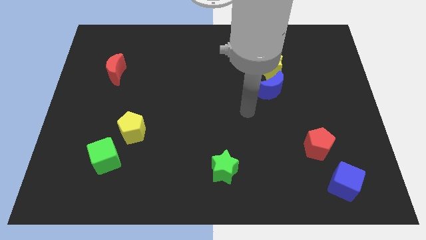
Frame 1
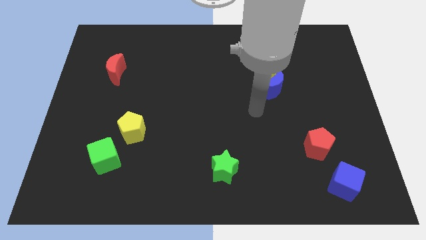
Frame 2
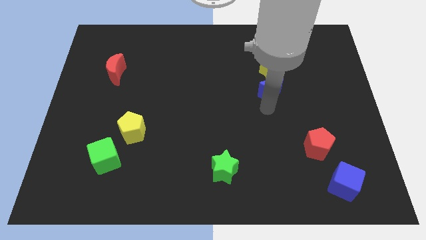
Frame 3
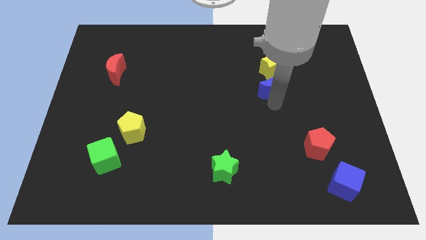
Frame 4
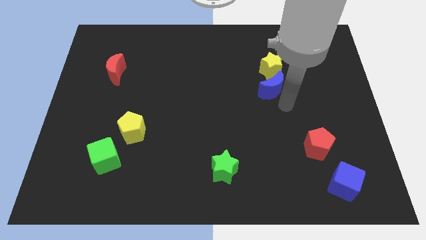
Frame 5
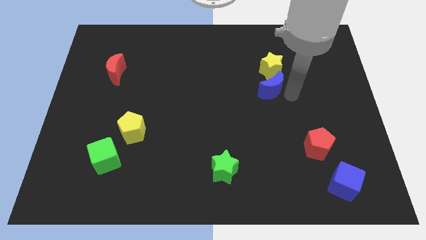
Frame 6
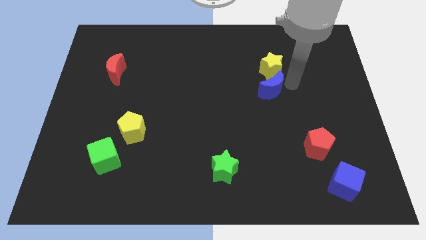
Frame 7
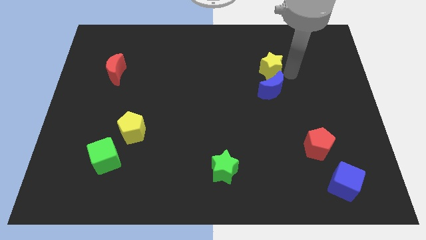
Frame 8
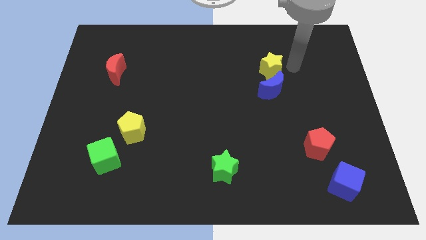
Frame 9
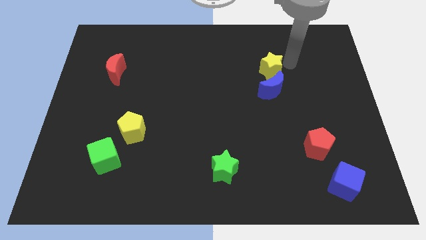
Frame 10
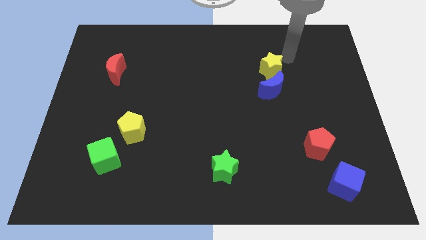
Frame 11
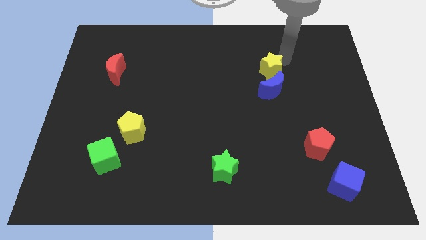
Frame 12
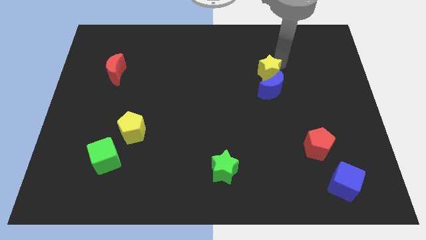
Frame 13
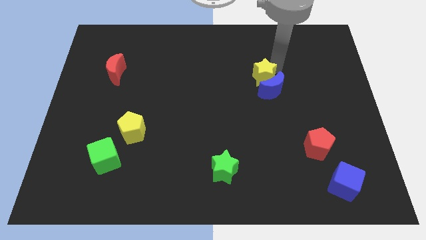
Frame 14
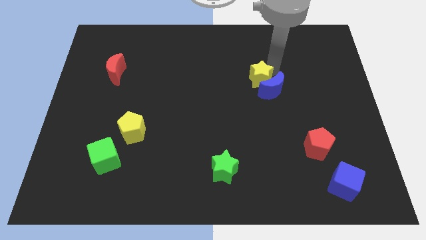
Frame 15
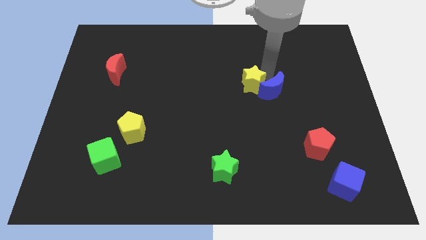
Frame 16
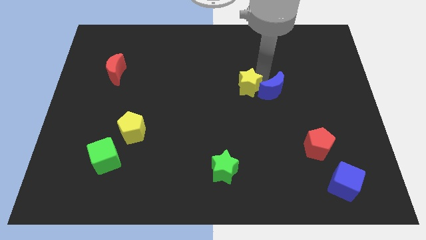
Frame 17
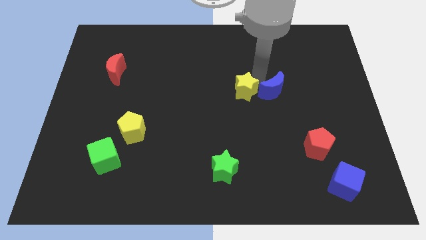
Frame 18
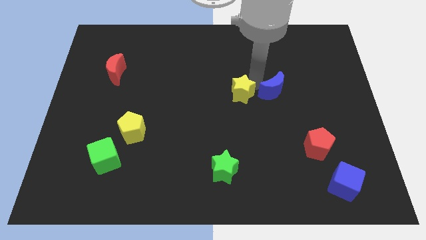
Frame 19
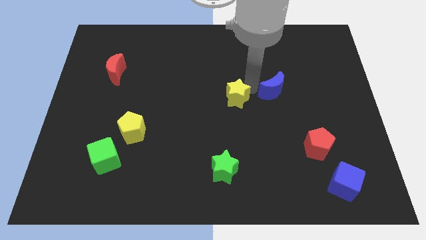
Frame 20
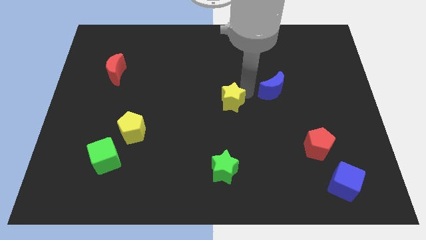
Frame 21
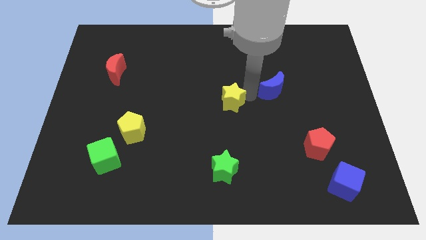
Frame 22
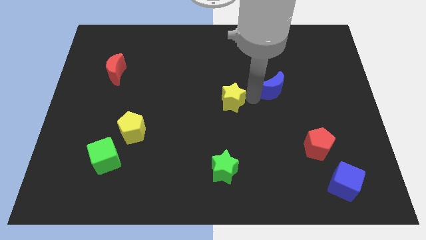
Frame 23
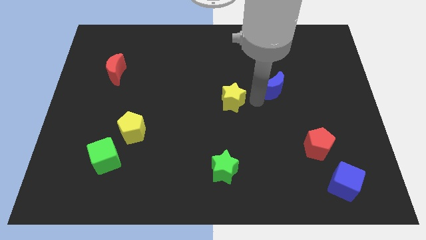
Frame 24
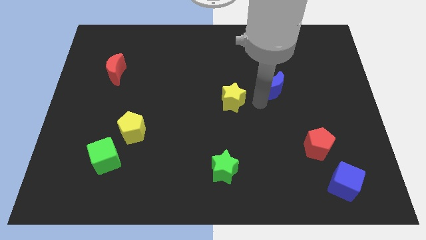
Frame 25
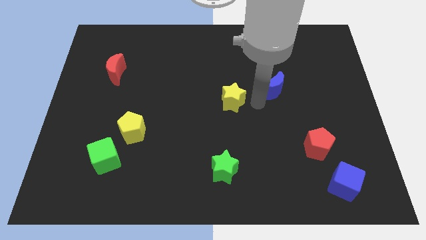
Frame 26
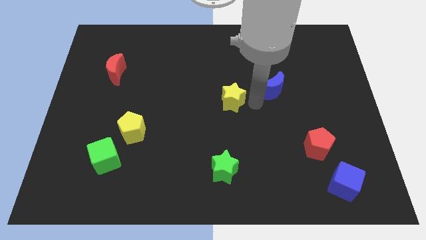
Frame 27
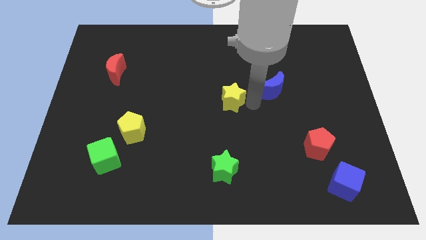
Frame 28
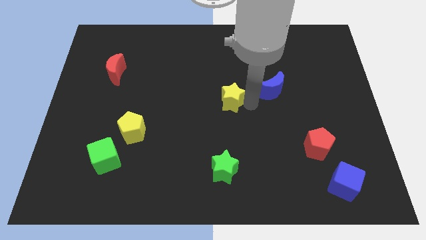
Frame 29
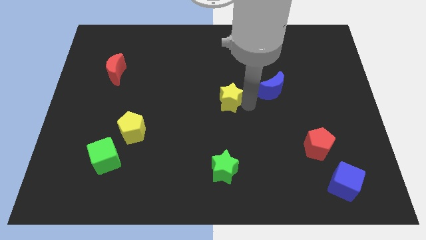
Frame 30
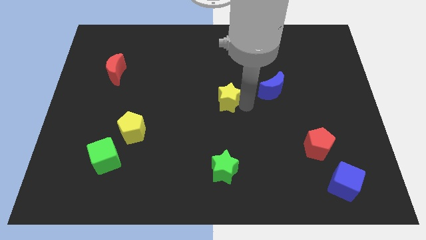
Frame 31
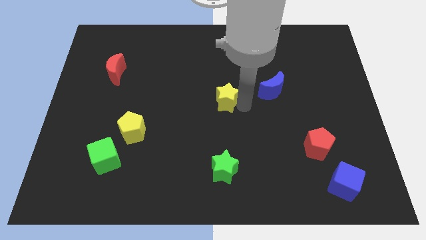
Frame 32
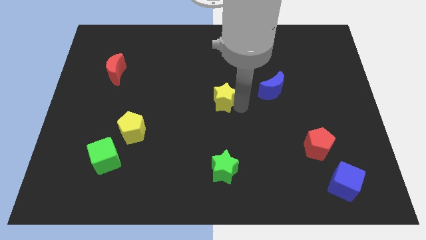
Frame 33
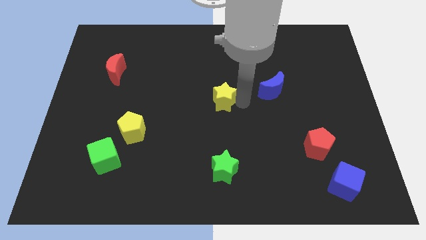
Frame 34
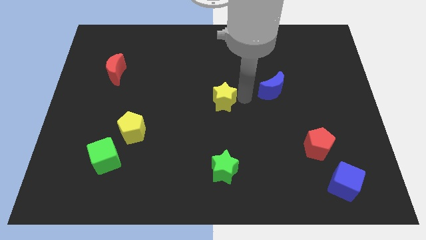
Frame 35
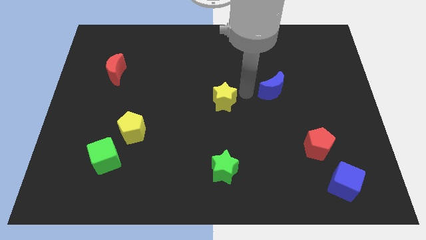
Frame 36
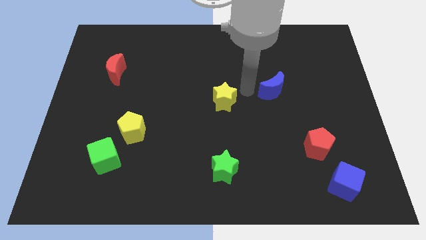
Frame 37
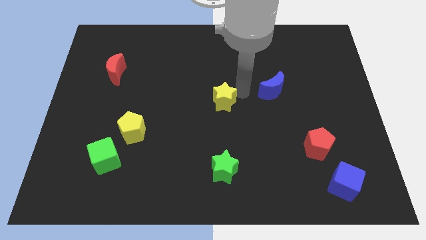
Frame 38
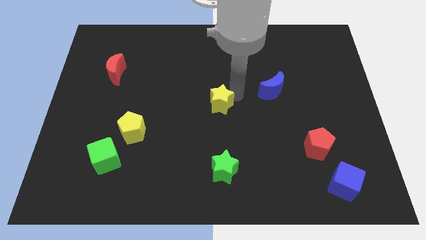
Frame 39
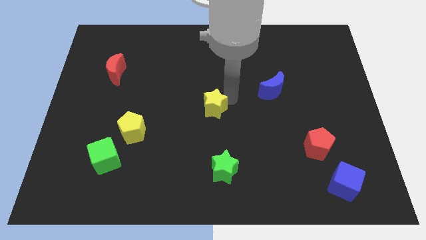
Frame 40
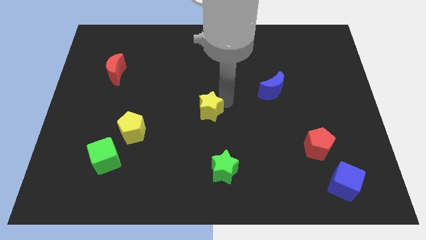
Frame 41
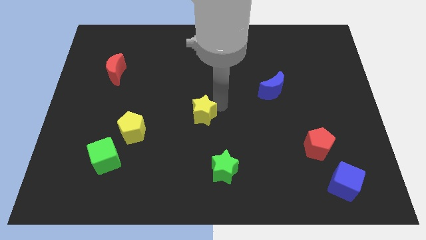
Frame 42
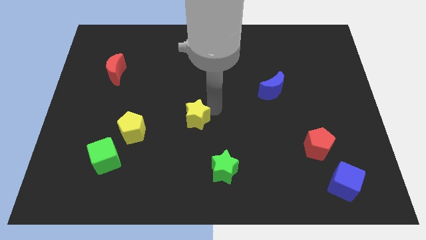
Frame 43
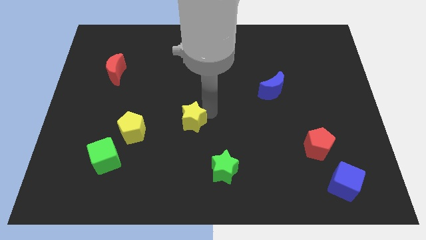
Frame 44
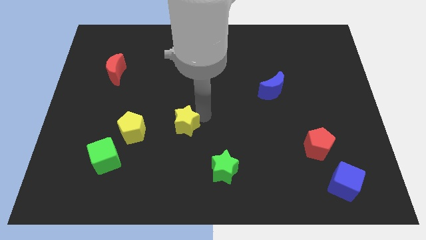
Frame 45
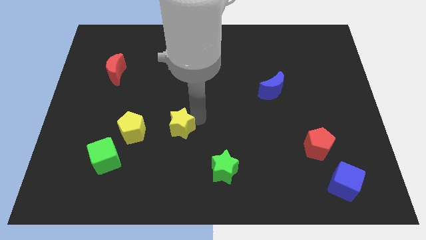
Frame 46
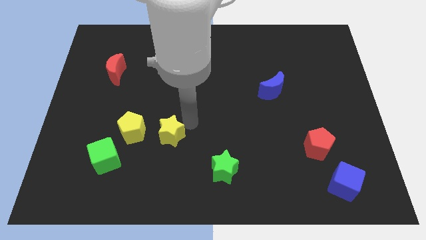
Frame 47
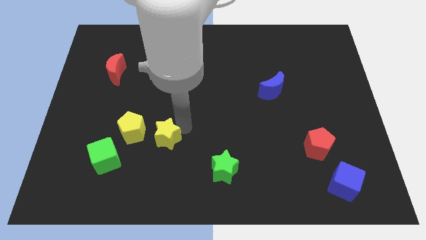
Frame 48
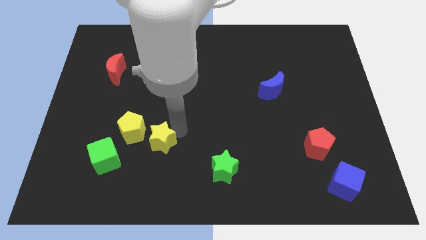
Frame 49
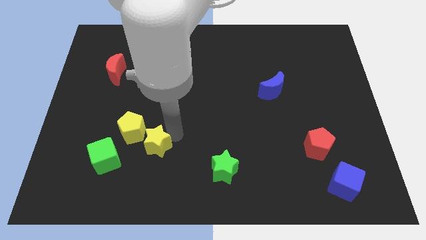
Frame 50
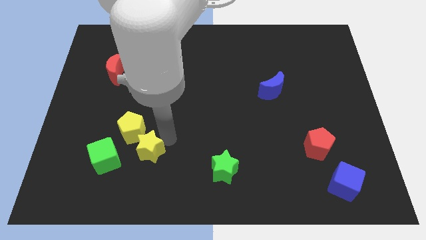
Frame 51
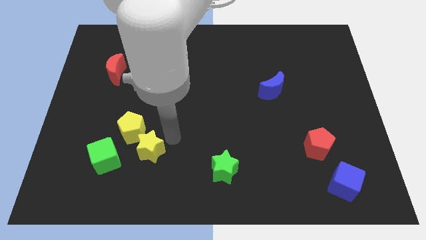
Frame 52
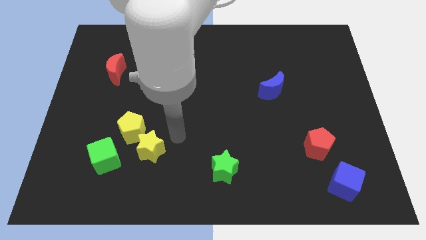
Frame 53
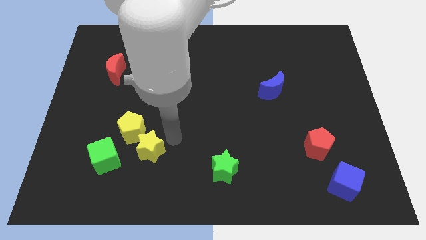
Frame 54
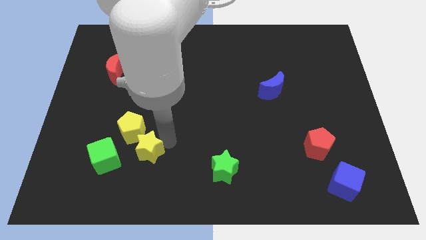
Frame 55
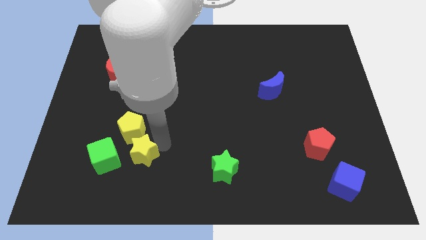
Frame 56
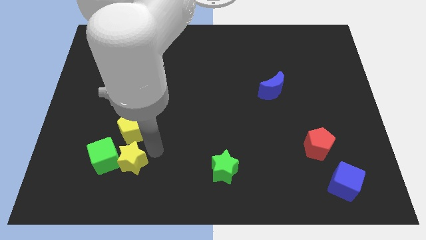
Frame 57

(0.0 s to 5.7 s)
slide the yellow star close to the green cube

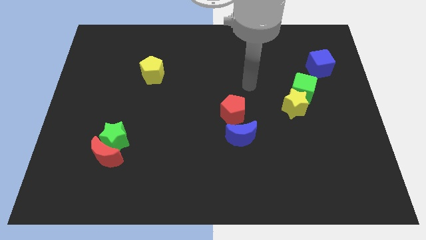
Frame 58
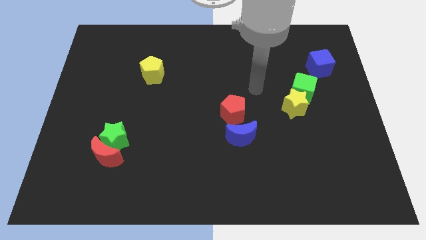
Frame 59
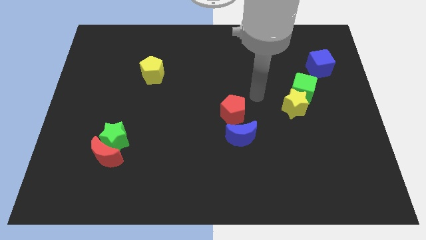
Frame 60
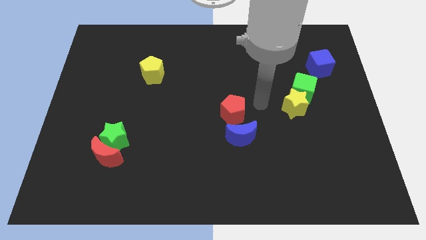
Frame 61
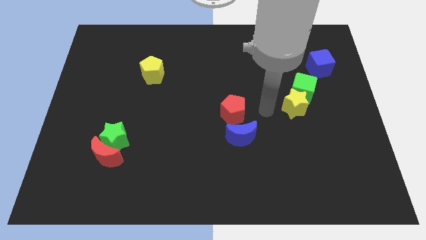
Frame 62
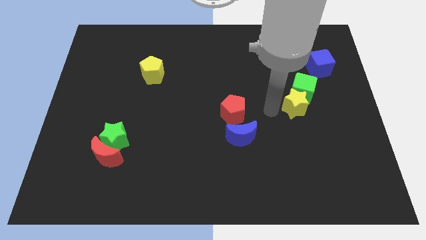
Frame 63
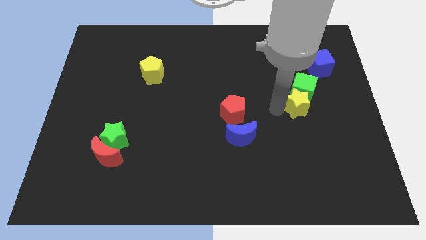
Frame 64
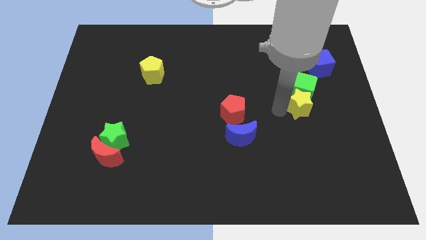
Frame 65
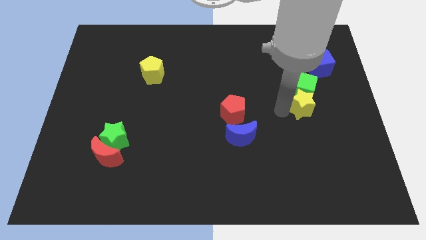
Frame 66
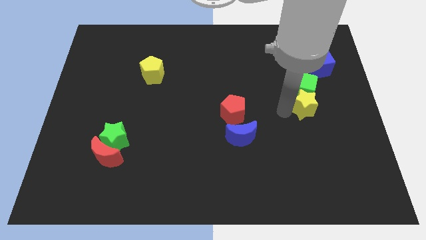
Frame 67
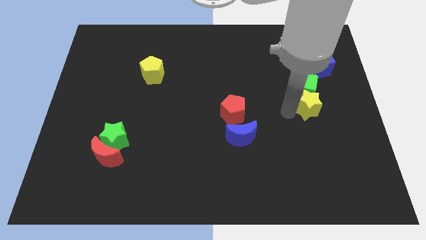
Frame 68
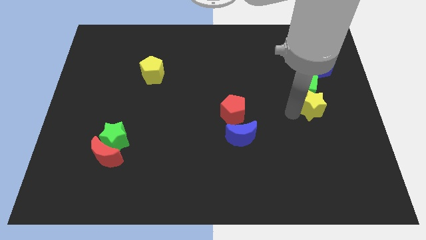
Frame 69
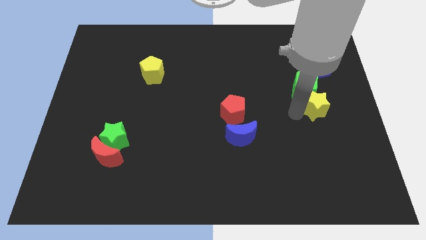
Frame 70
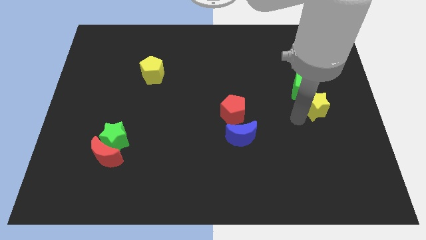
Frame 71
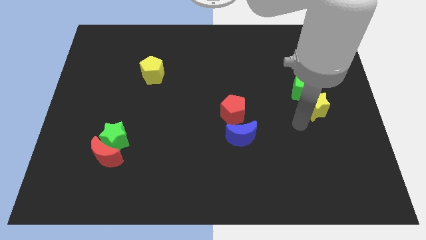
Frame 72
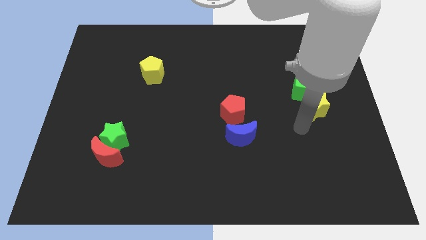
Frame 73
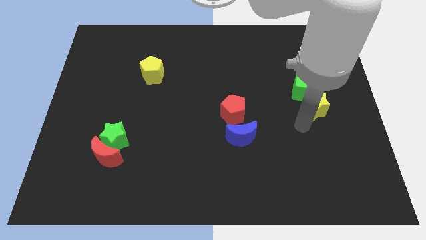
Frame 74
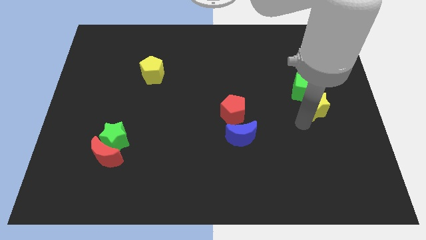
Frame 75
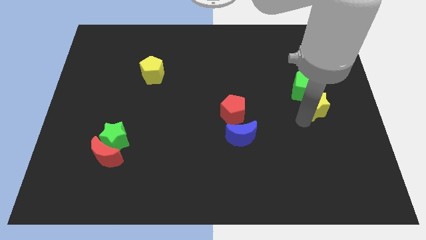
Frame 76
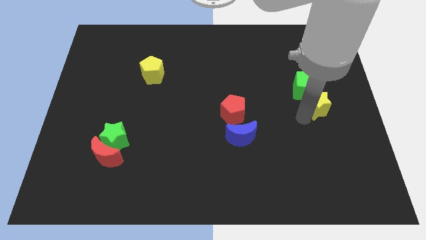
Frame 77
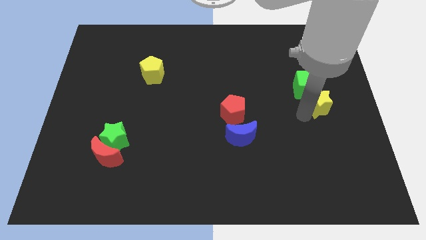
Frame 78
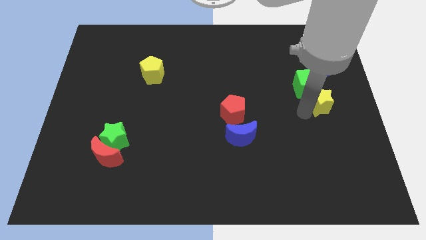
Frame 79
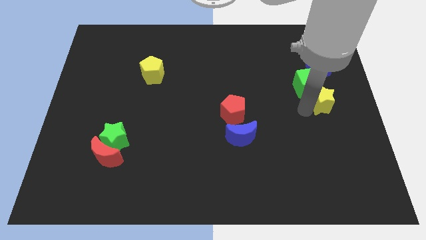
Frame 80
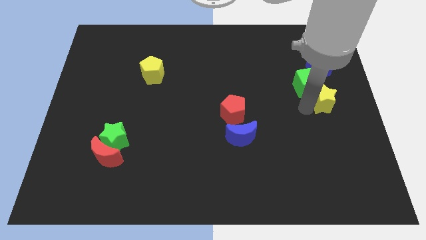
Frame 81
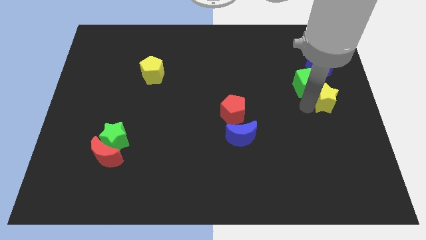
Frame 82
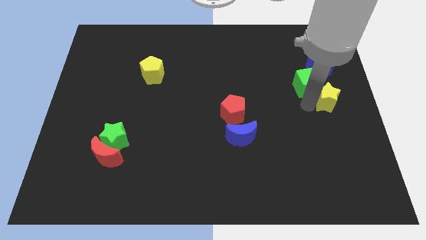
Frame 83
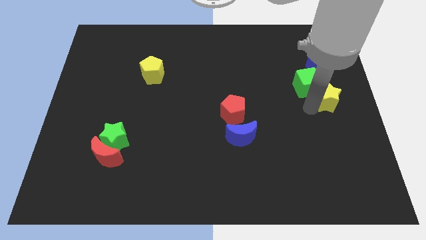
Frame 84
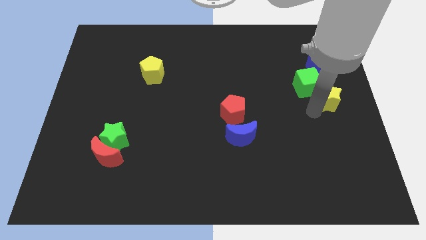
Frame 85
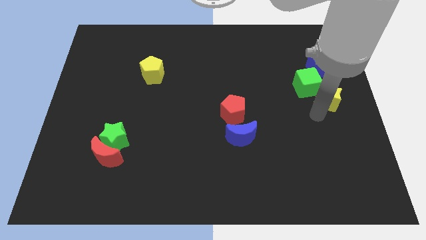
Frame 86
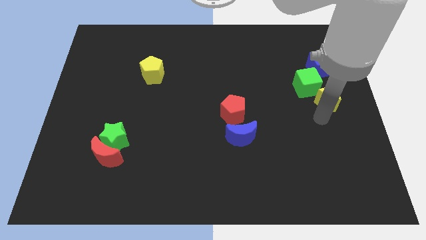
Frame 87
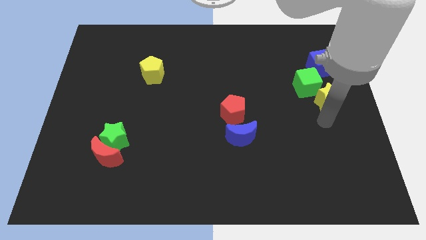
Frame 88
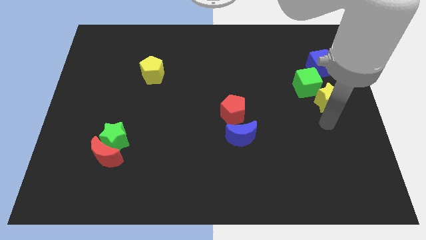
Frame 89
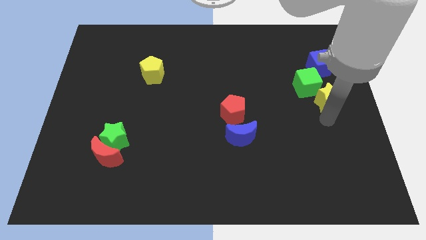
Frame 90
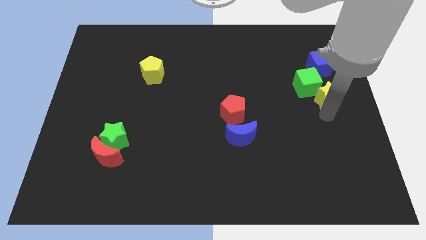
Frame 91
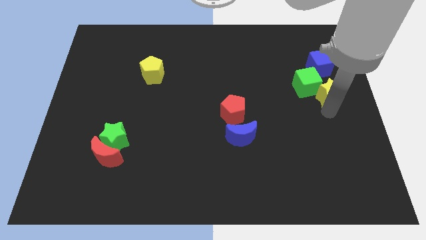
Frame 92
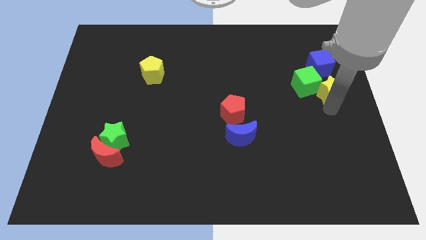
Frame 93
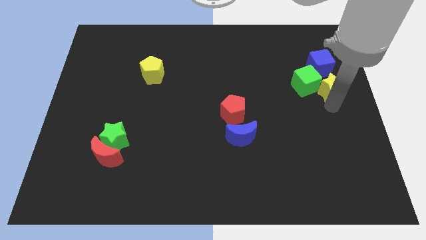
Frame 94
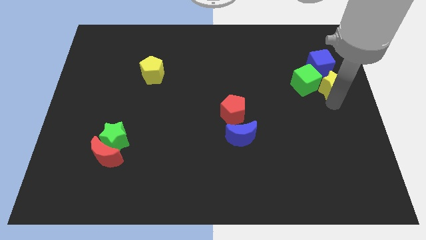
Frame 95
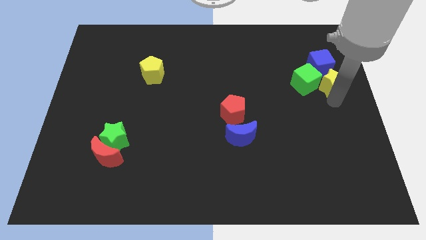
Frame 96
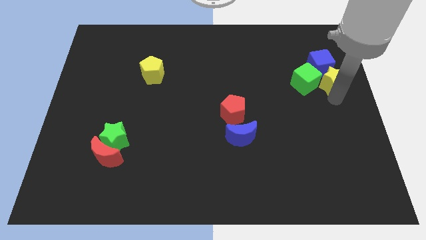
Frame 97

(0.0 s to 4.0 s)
move the yellow star towards the blue cube
